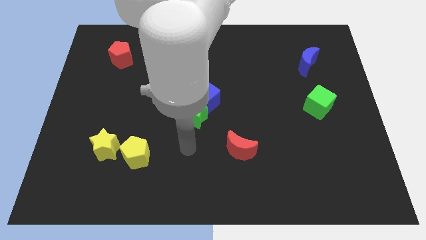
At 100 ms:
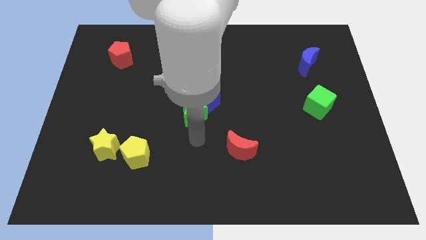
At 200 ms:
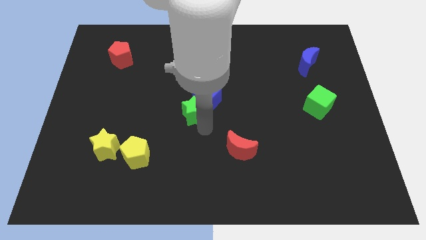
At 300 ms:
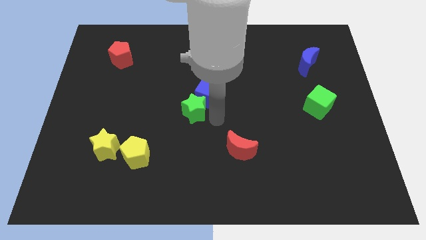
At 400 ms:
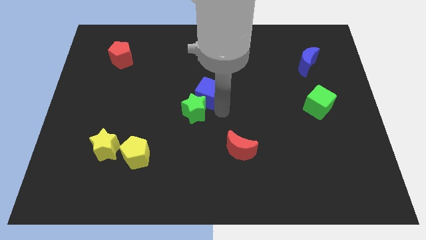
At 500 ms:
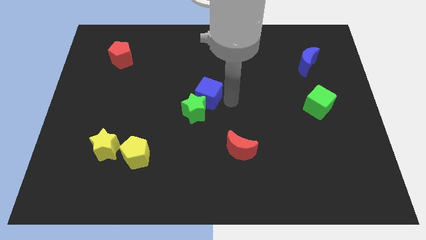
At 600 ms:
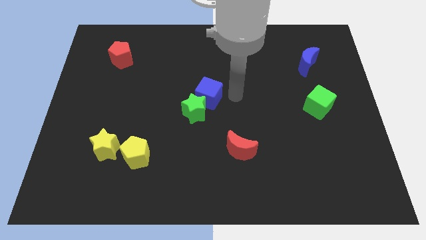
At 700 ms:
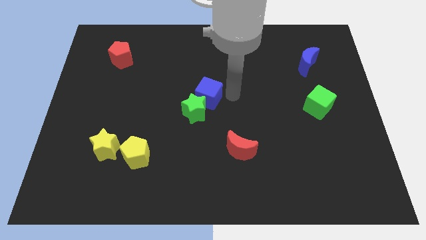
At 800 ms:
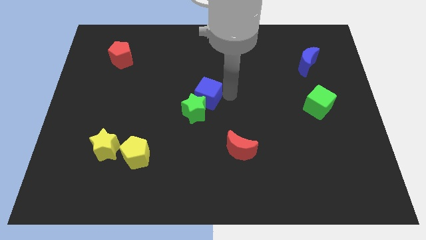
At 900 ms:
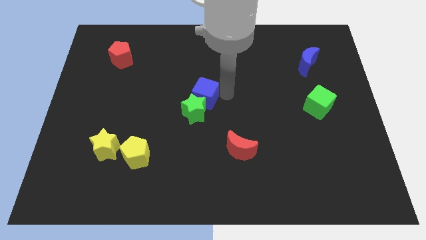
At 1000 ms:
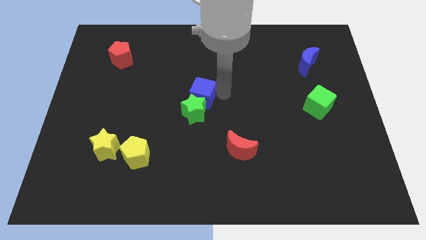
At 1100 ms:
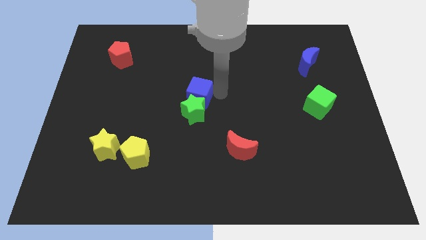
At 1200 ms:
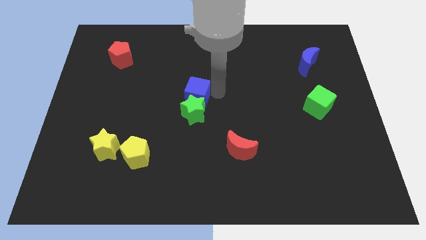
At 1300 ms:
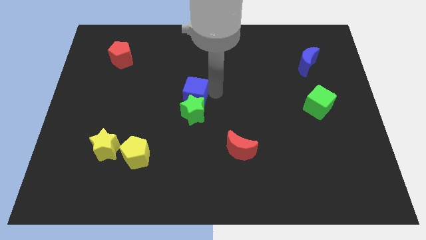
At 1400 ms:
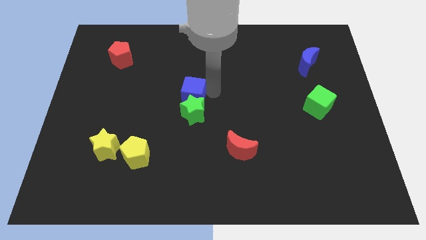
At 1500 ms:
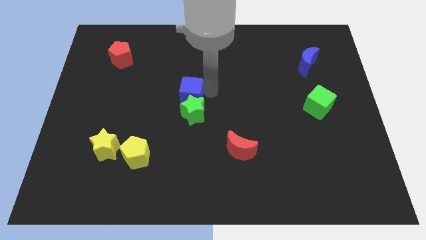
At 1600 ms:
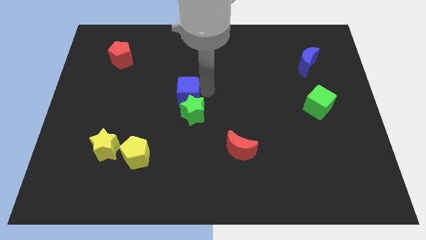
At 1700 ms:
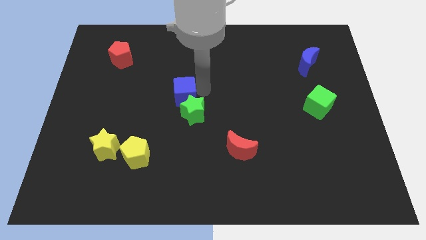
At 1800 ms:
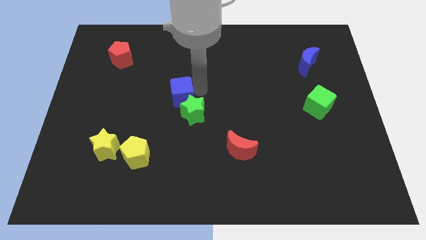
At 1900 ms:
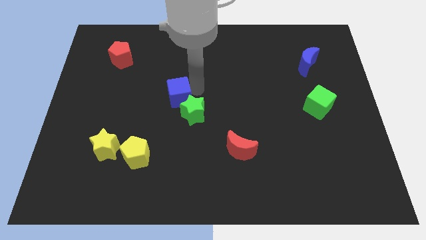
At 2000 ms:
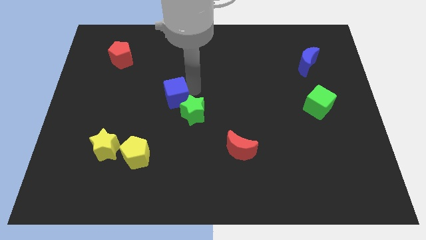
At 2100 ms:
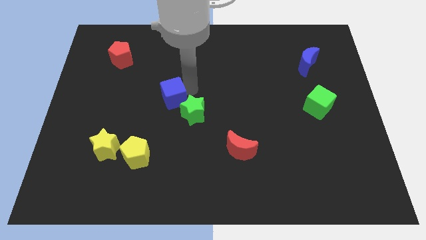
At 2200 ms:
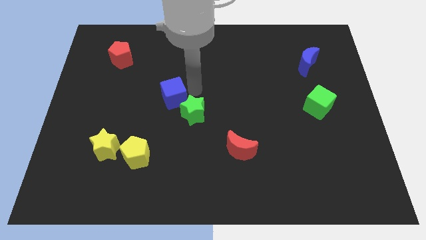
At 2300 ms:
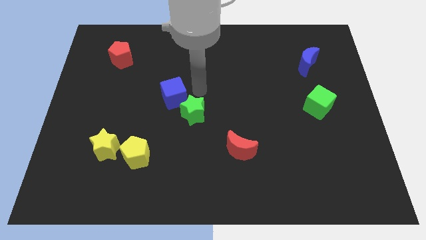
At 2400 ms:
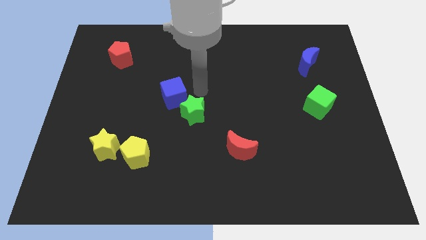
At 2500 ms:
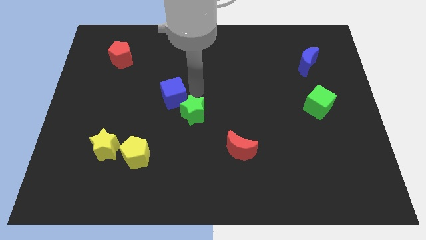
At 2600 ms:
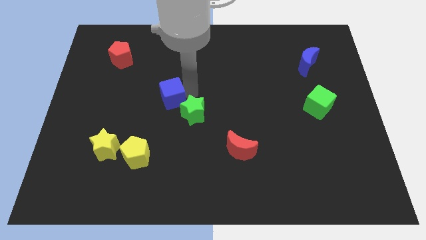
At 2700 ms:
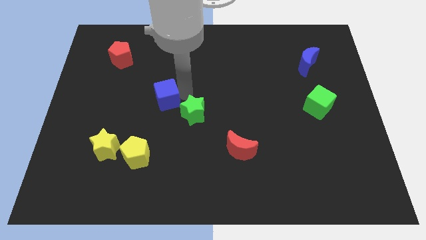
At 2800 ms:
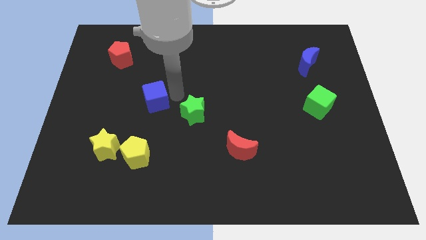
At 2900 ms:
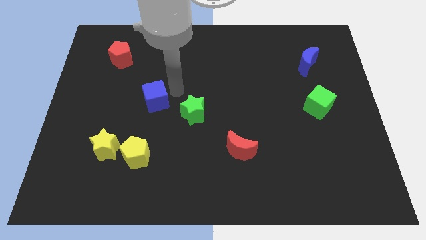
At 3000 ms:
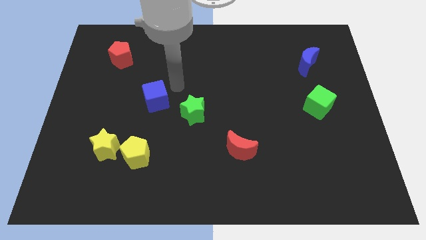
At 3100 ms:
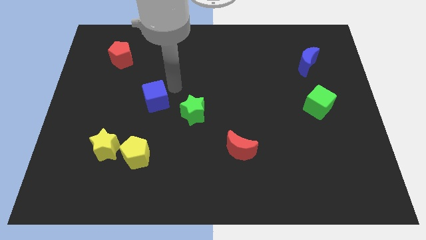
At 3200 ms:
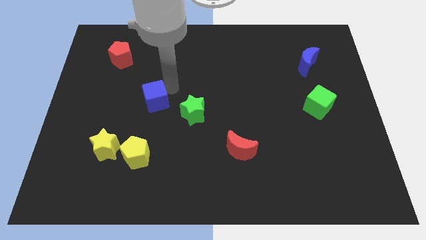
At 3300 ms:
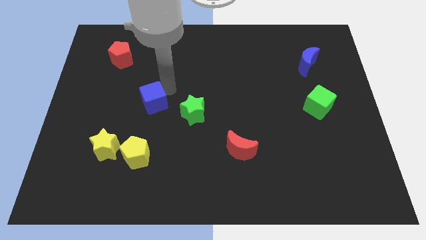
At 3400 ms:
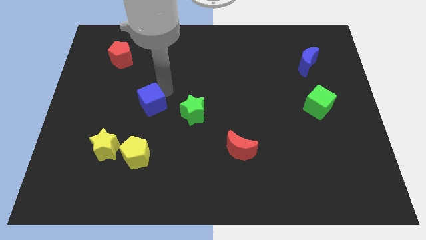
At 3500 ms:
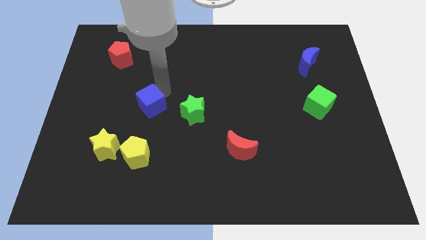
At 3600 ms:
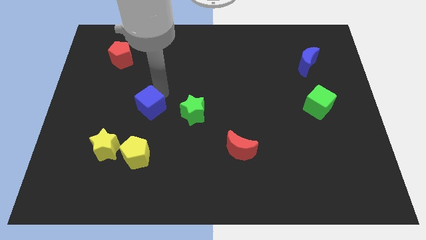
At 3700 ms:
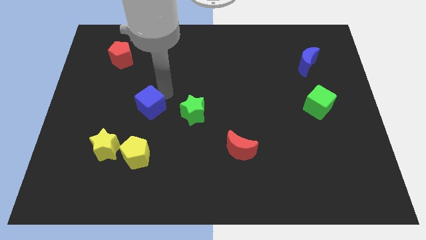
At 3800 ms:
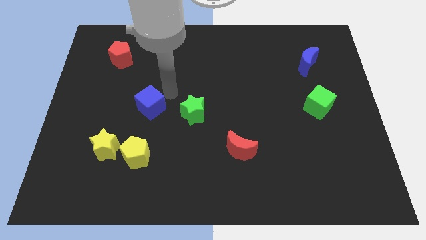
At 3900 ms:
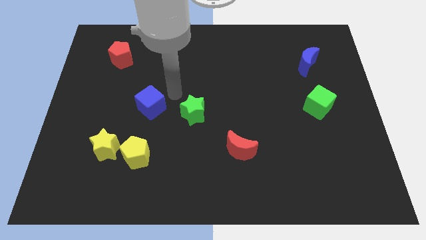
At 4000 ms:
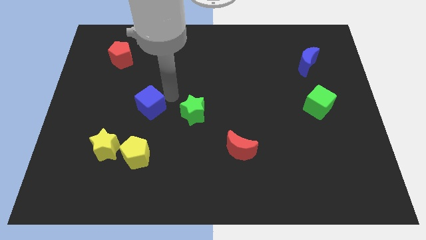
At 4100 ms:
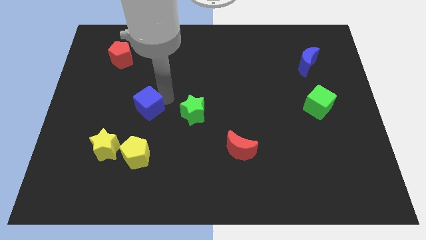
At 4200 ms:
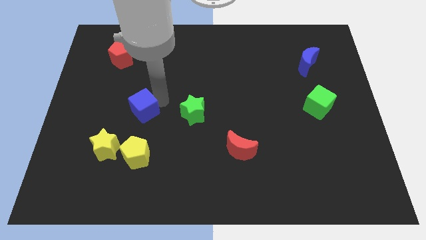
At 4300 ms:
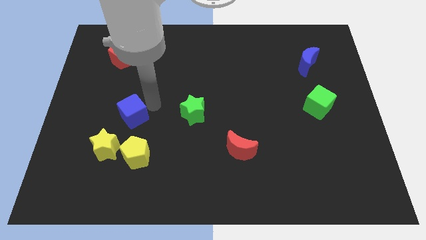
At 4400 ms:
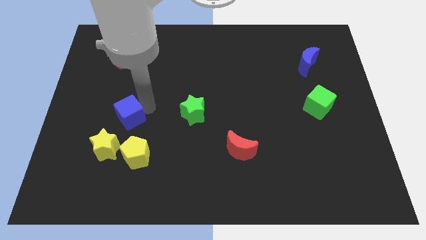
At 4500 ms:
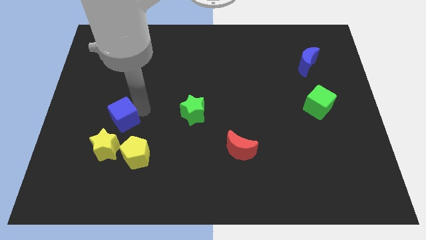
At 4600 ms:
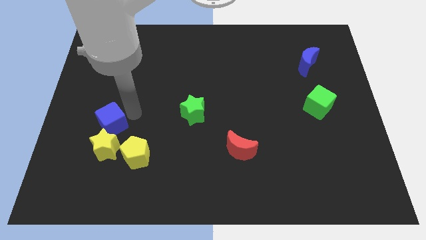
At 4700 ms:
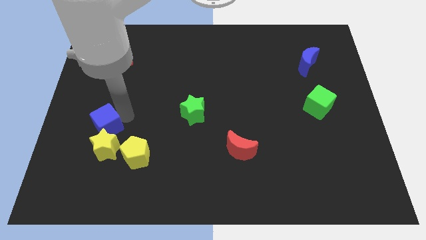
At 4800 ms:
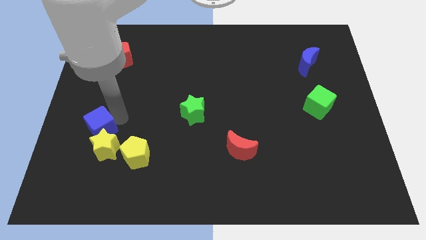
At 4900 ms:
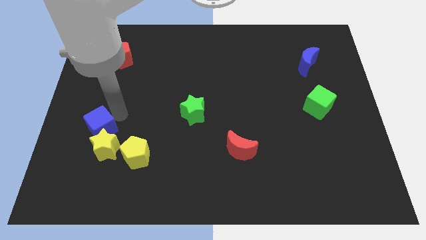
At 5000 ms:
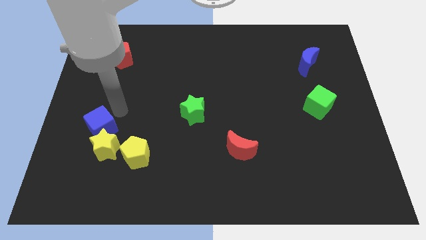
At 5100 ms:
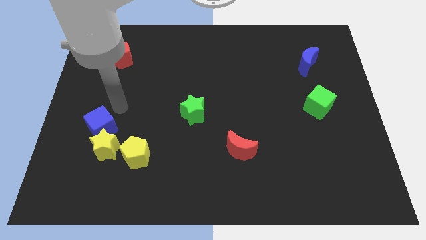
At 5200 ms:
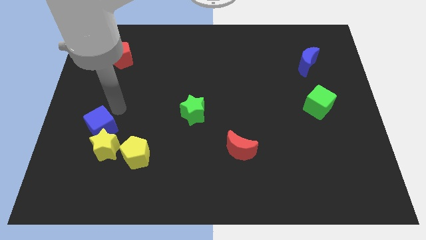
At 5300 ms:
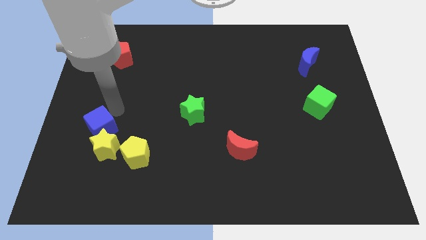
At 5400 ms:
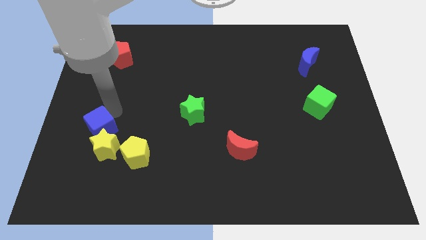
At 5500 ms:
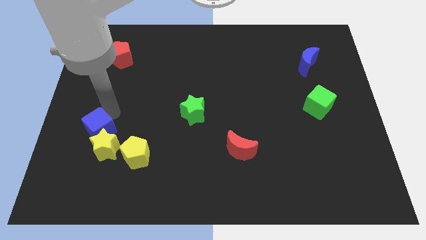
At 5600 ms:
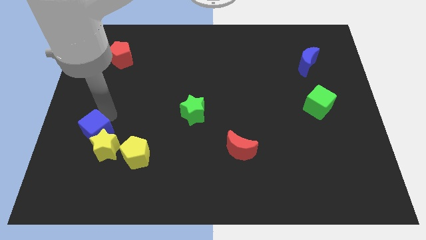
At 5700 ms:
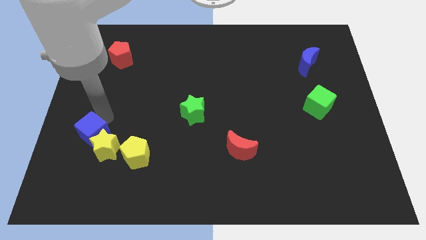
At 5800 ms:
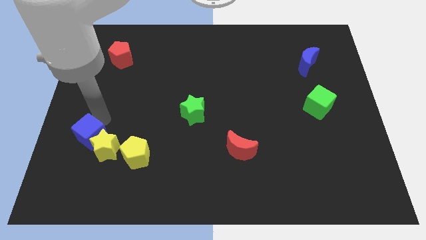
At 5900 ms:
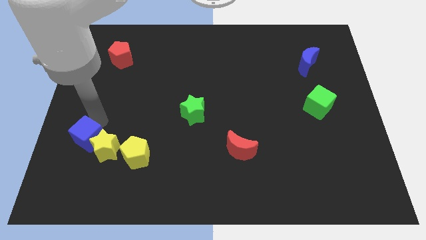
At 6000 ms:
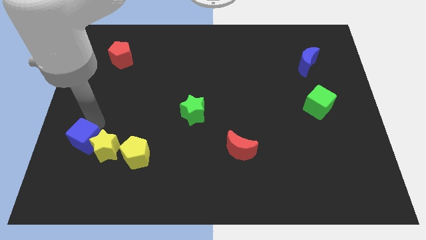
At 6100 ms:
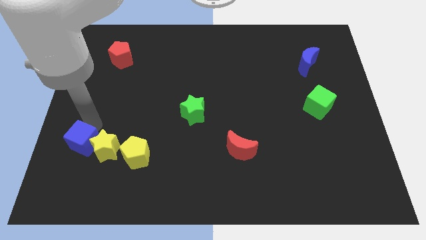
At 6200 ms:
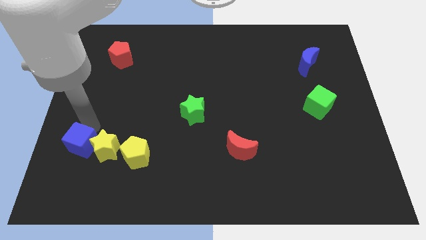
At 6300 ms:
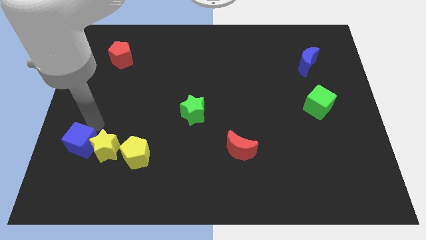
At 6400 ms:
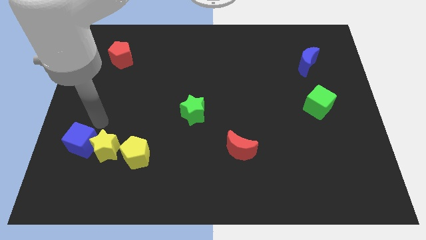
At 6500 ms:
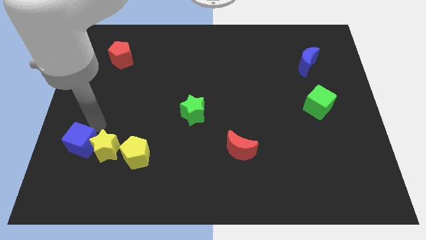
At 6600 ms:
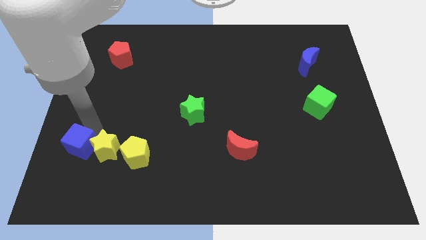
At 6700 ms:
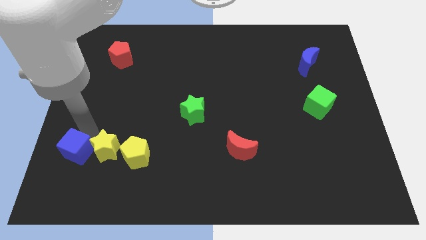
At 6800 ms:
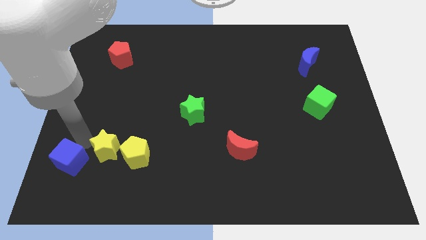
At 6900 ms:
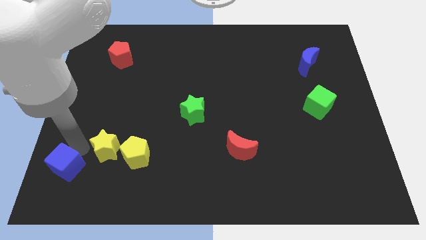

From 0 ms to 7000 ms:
slide the blue cube to the bottom left
